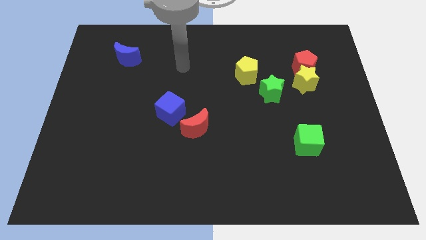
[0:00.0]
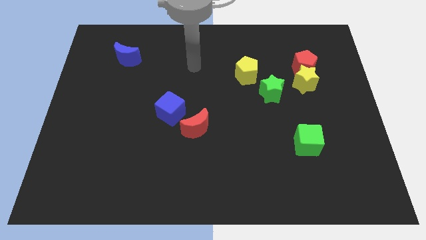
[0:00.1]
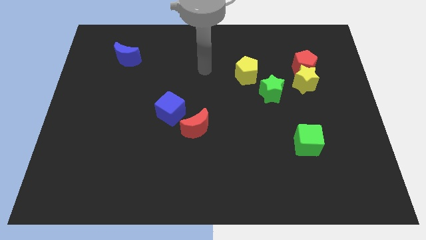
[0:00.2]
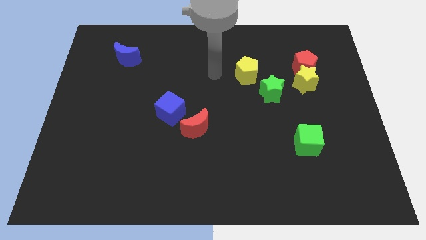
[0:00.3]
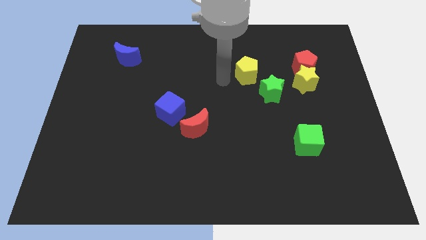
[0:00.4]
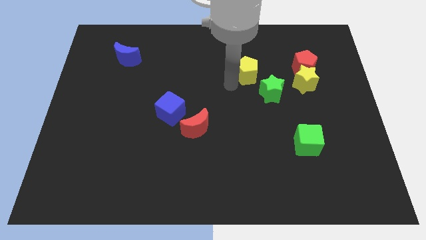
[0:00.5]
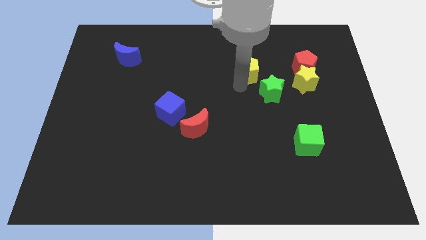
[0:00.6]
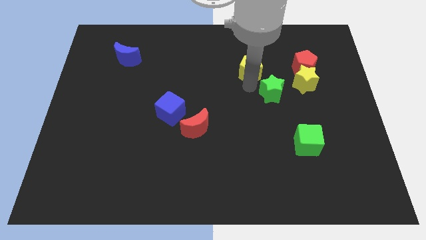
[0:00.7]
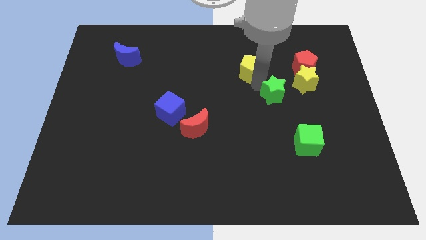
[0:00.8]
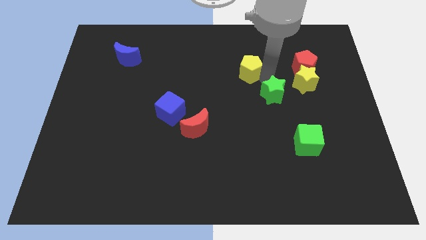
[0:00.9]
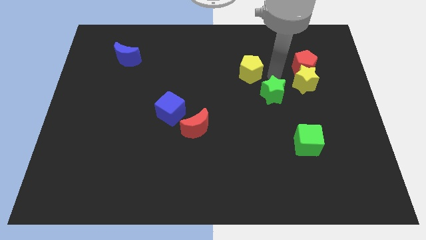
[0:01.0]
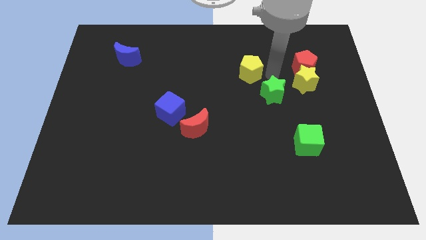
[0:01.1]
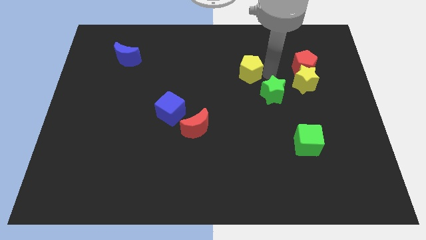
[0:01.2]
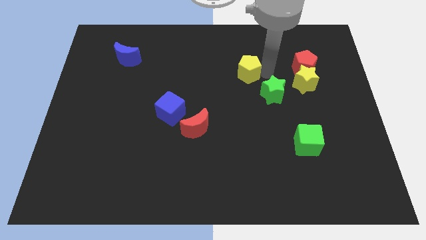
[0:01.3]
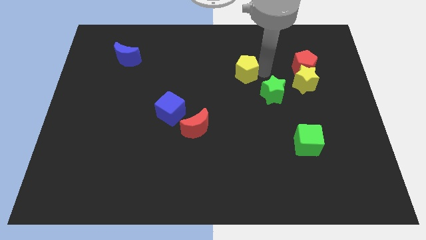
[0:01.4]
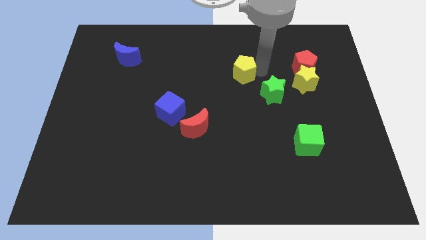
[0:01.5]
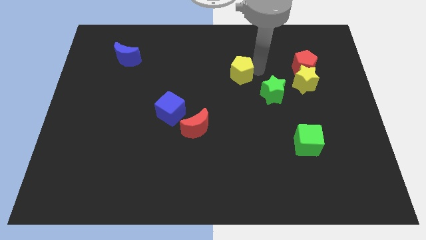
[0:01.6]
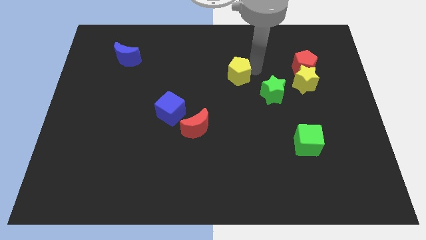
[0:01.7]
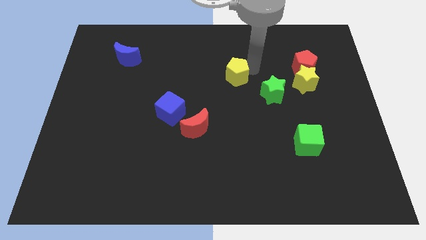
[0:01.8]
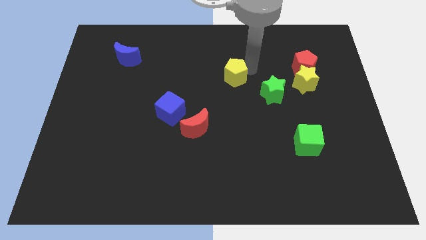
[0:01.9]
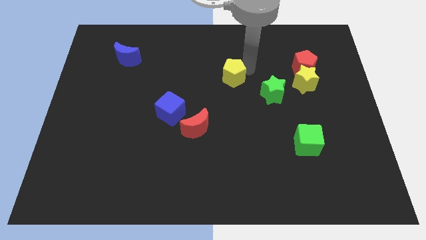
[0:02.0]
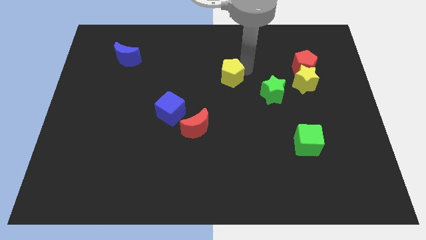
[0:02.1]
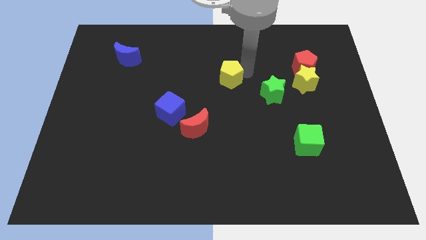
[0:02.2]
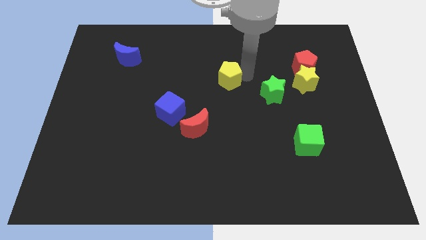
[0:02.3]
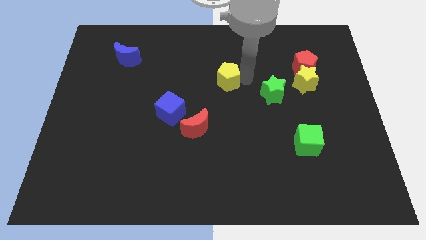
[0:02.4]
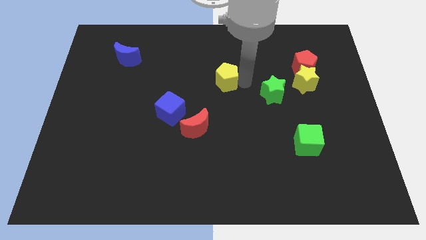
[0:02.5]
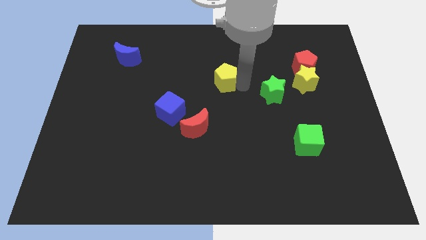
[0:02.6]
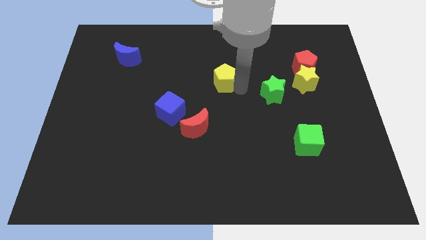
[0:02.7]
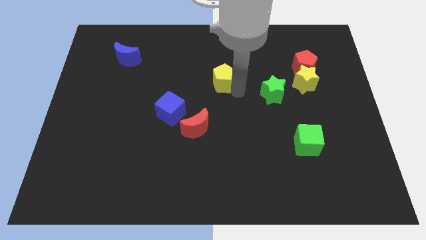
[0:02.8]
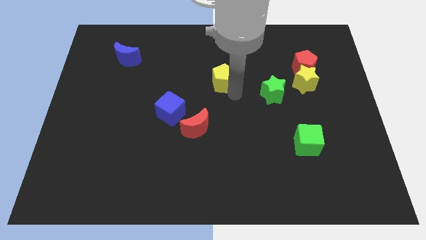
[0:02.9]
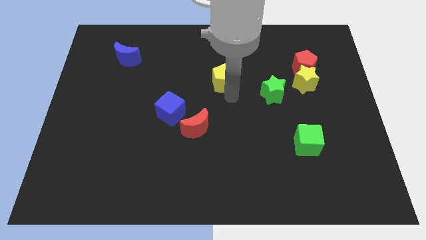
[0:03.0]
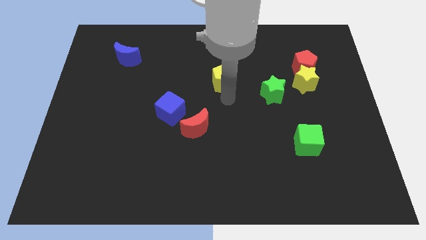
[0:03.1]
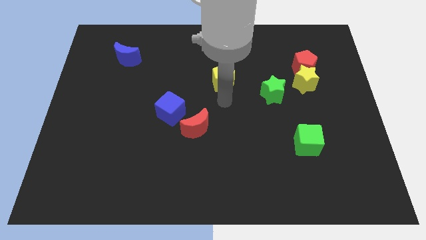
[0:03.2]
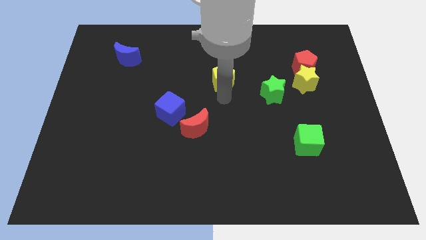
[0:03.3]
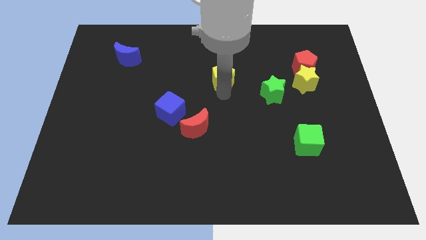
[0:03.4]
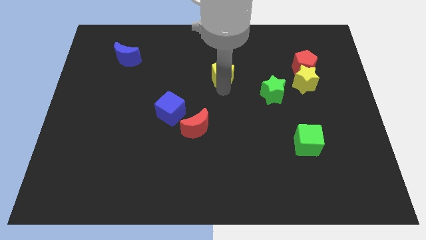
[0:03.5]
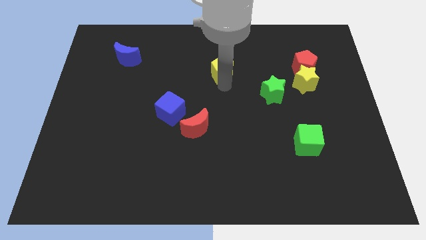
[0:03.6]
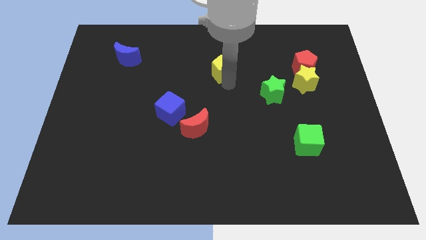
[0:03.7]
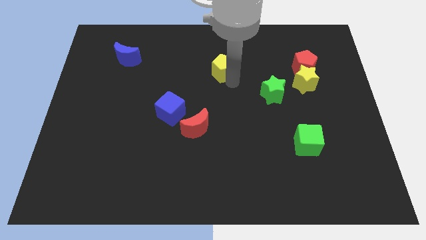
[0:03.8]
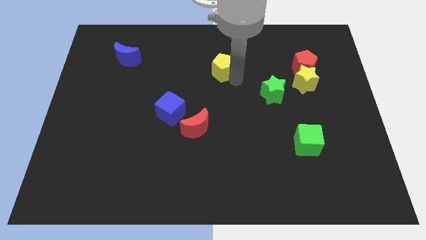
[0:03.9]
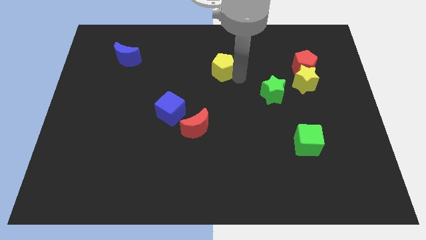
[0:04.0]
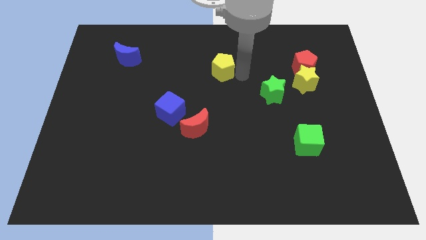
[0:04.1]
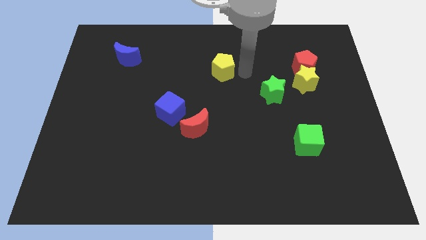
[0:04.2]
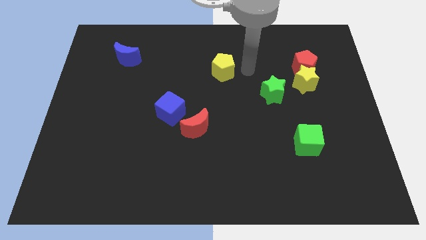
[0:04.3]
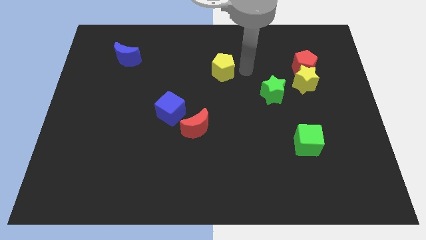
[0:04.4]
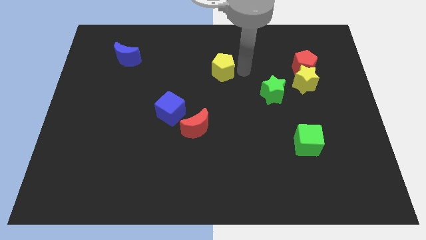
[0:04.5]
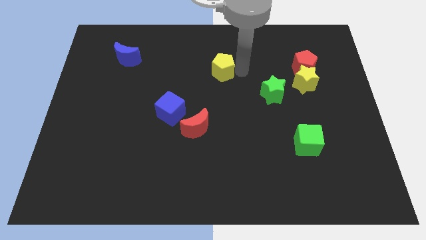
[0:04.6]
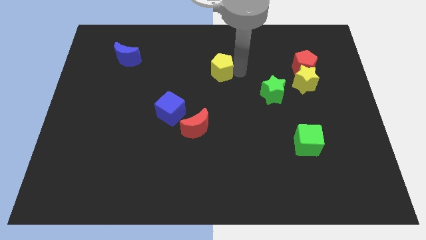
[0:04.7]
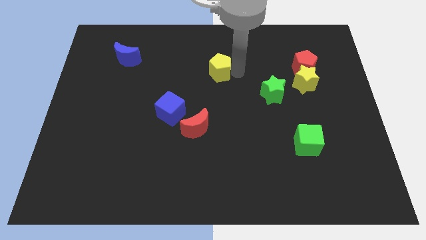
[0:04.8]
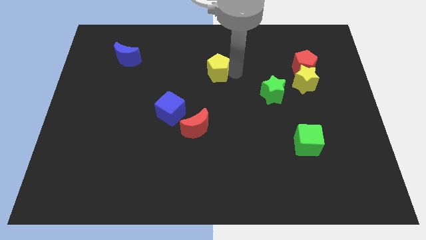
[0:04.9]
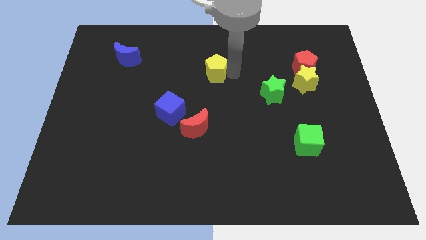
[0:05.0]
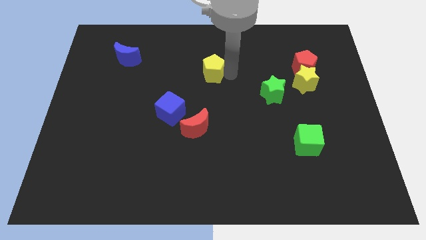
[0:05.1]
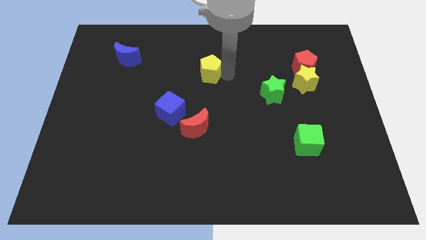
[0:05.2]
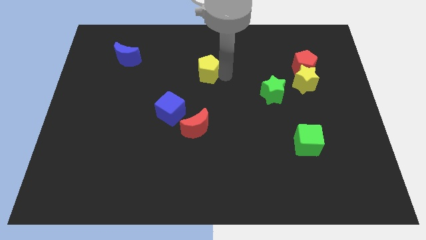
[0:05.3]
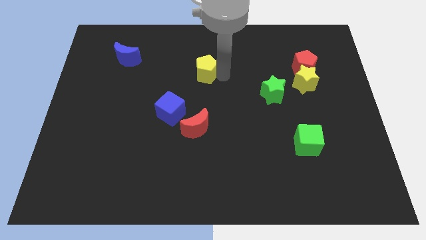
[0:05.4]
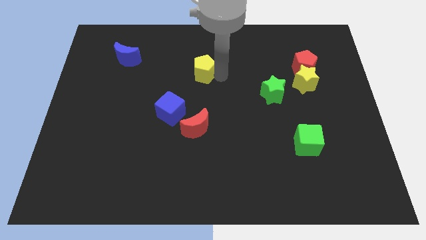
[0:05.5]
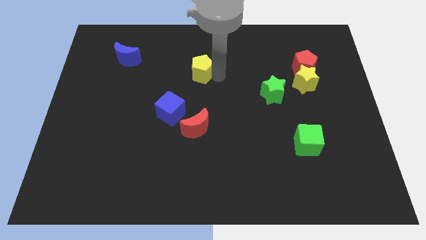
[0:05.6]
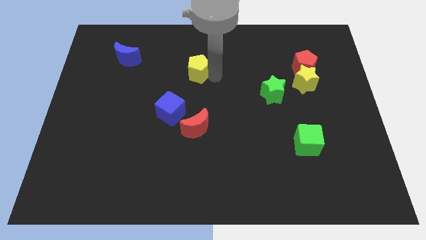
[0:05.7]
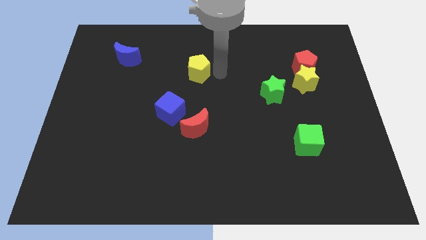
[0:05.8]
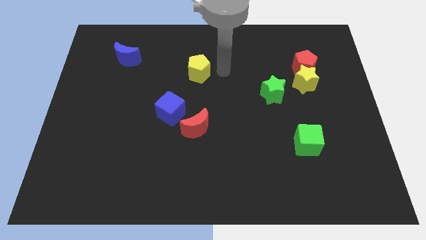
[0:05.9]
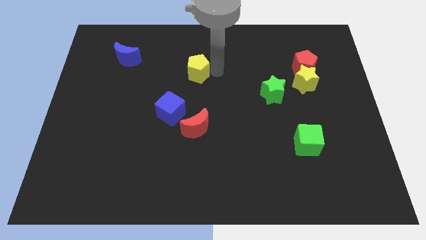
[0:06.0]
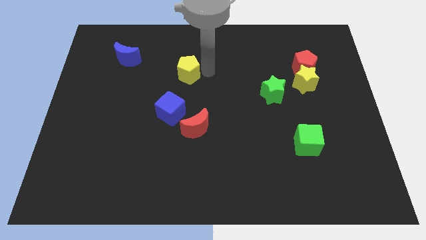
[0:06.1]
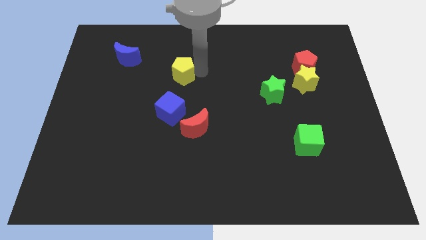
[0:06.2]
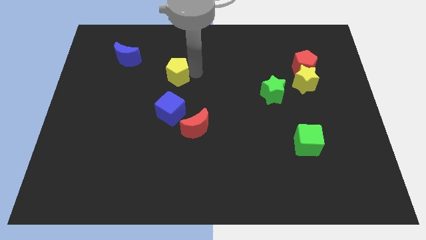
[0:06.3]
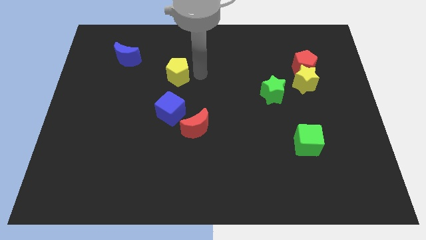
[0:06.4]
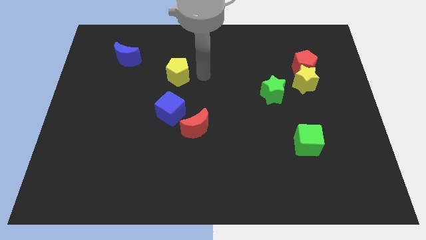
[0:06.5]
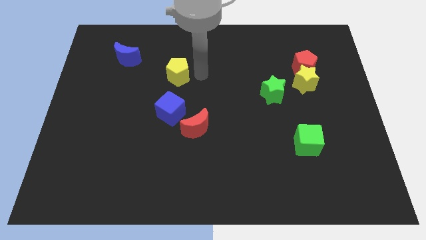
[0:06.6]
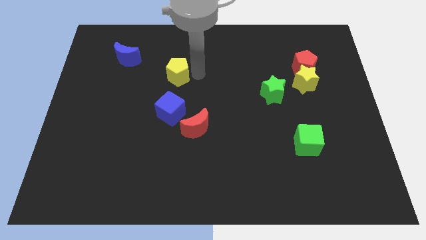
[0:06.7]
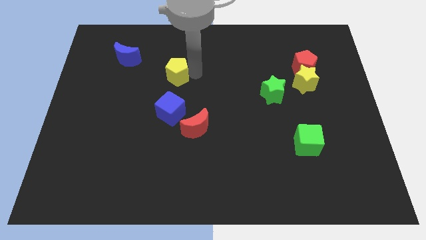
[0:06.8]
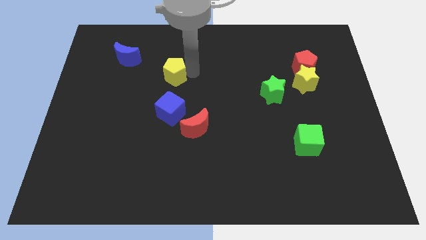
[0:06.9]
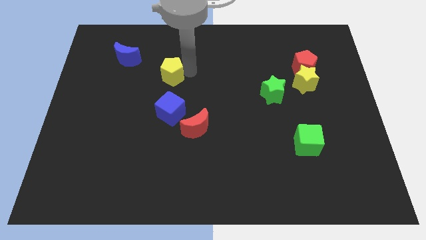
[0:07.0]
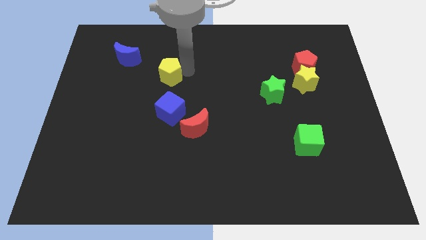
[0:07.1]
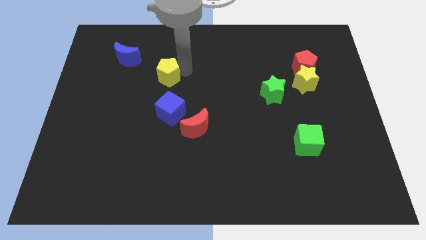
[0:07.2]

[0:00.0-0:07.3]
push the yellow pentagon left

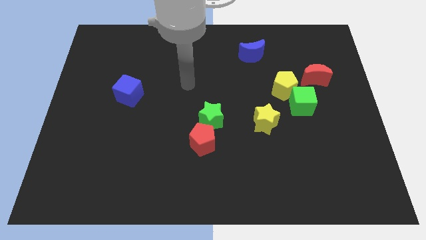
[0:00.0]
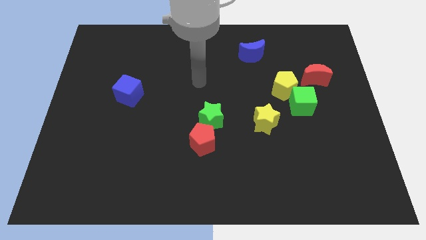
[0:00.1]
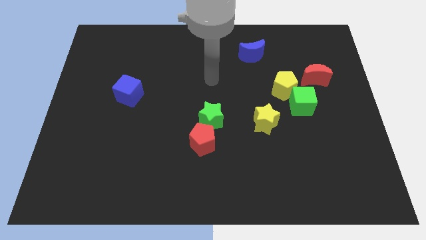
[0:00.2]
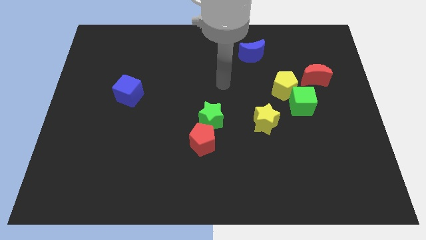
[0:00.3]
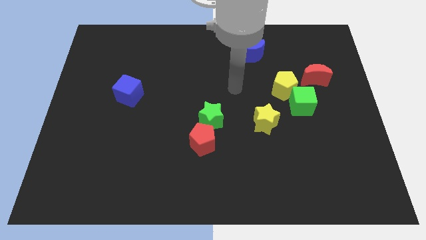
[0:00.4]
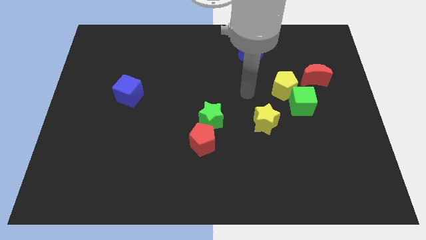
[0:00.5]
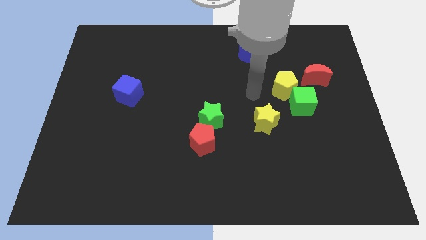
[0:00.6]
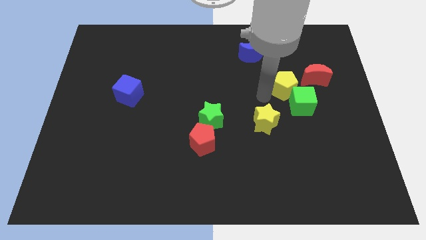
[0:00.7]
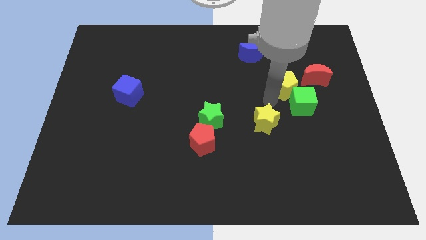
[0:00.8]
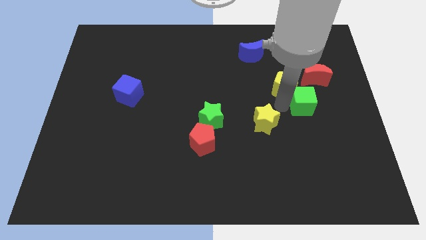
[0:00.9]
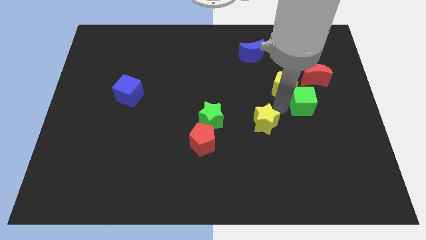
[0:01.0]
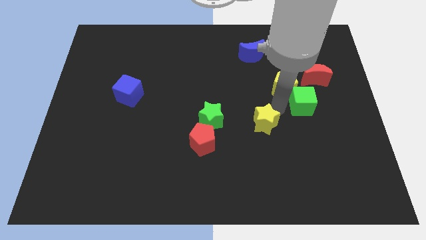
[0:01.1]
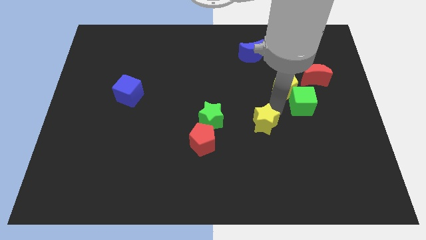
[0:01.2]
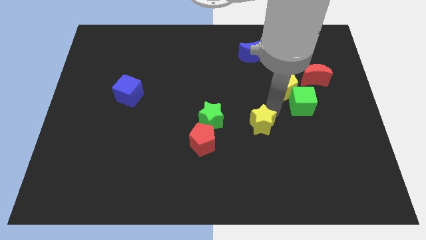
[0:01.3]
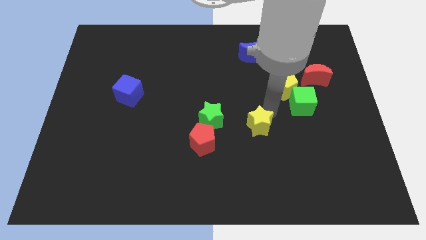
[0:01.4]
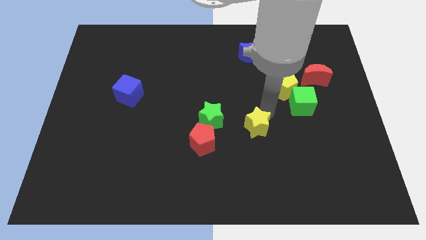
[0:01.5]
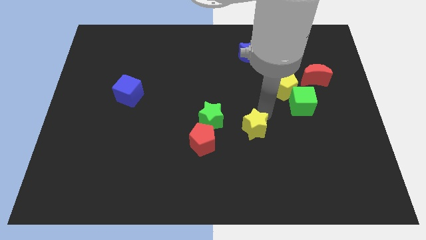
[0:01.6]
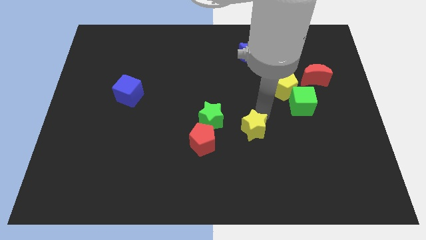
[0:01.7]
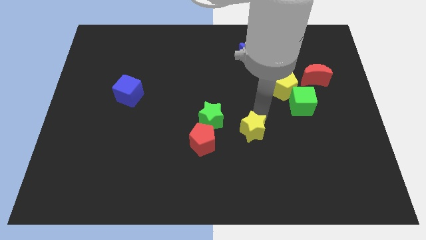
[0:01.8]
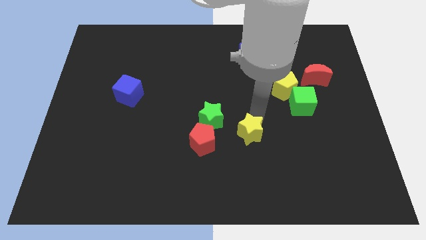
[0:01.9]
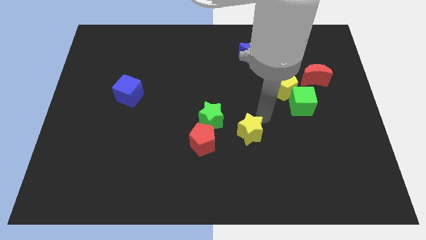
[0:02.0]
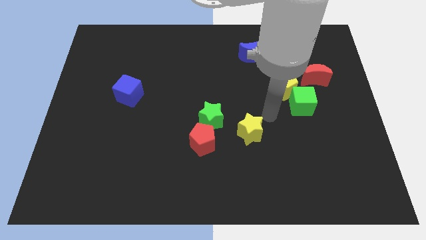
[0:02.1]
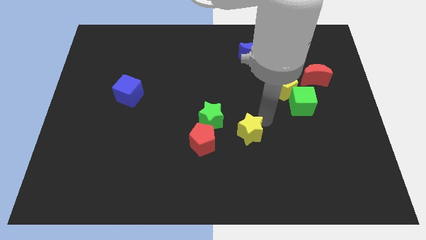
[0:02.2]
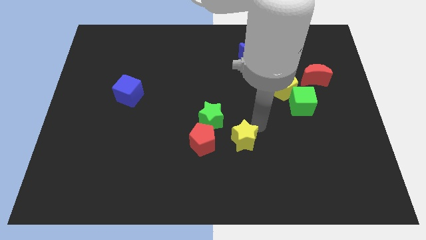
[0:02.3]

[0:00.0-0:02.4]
push the yellow star a little bit down and then to the left
